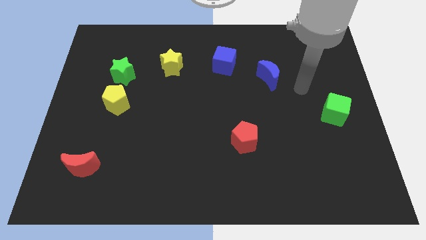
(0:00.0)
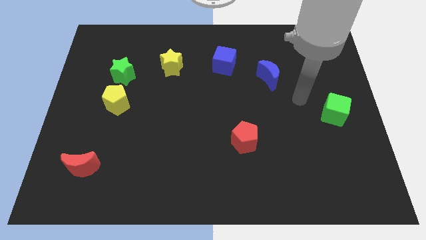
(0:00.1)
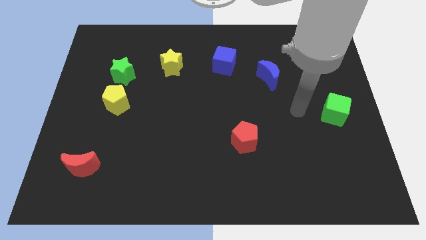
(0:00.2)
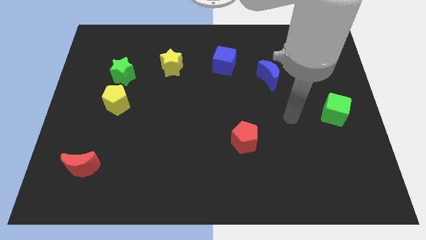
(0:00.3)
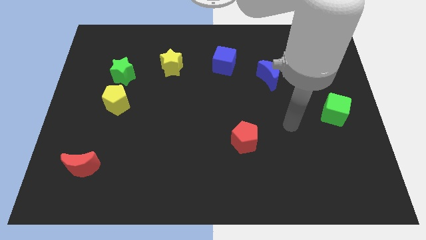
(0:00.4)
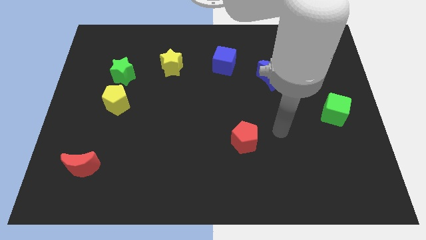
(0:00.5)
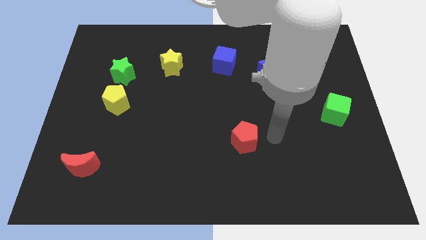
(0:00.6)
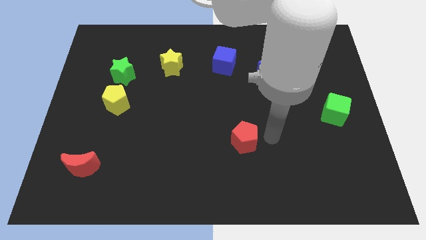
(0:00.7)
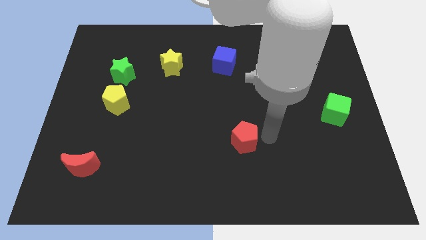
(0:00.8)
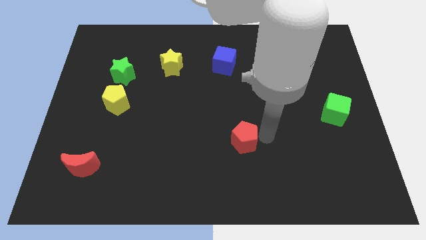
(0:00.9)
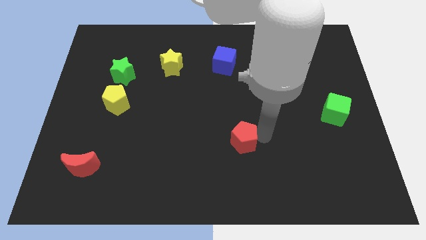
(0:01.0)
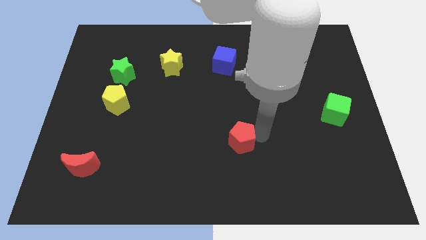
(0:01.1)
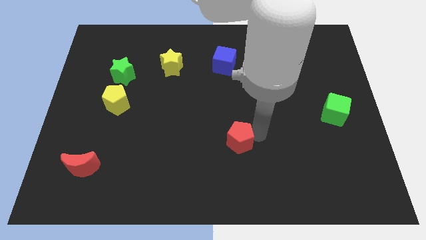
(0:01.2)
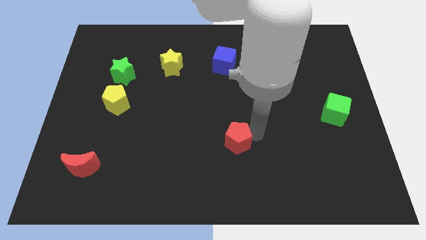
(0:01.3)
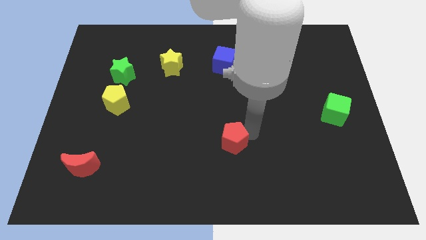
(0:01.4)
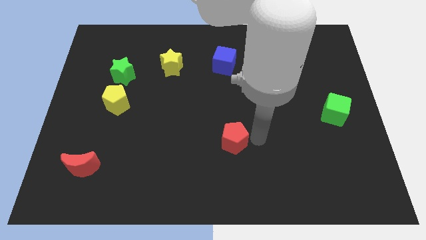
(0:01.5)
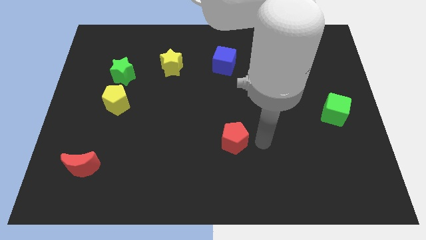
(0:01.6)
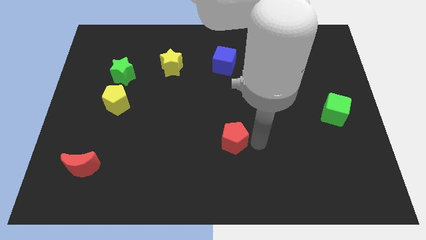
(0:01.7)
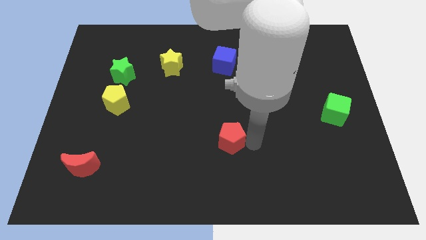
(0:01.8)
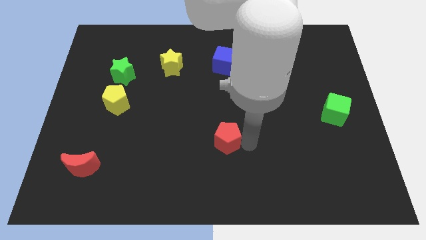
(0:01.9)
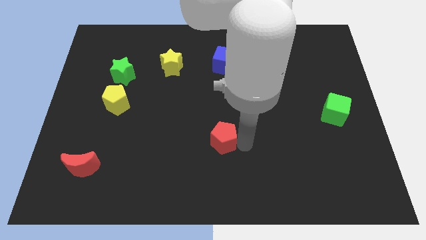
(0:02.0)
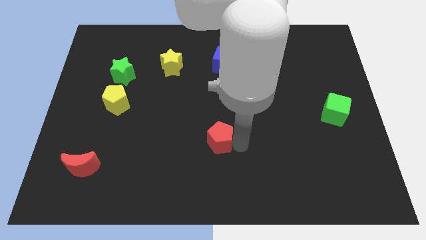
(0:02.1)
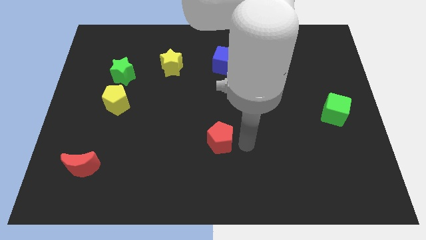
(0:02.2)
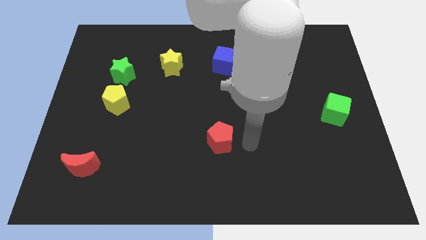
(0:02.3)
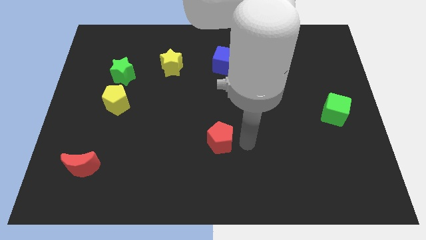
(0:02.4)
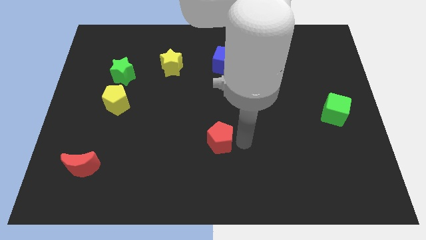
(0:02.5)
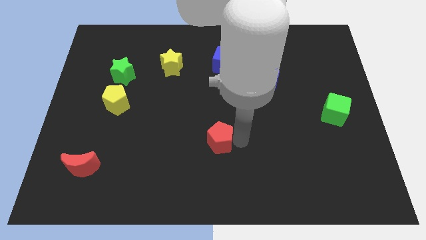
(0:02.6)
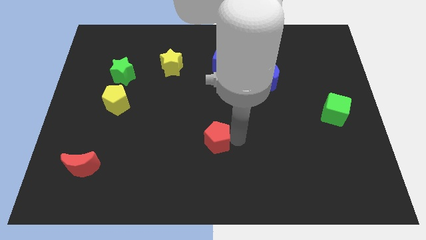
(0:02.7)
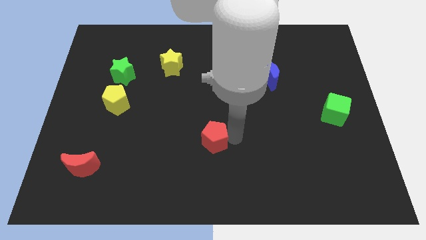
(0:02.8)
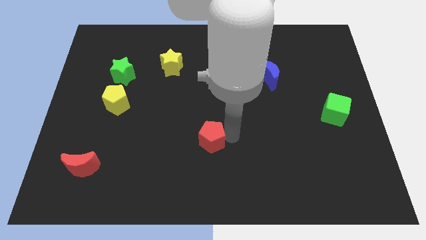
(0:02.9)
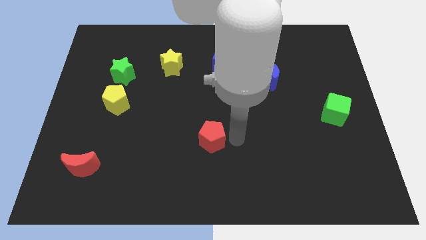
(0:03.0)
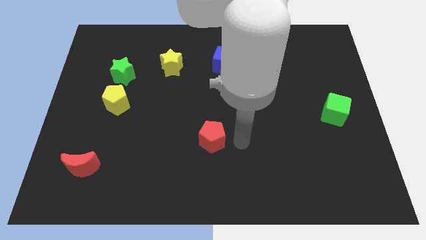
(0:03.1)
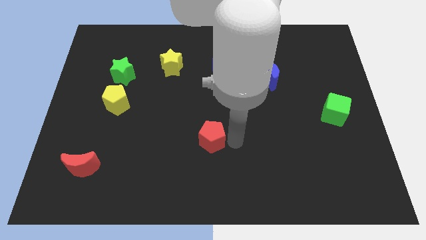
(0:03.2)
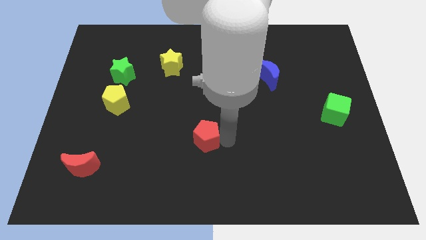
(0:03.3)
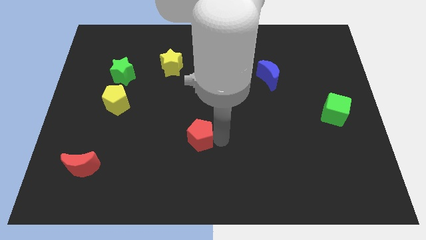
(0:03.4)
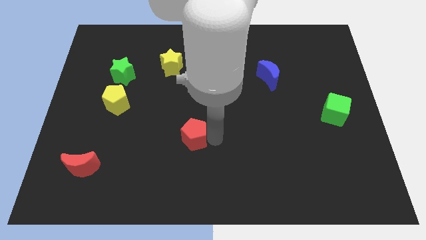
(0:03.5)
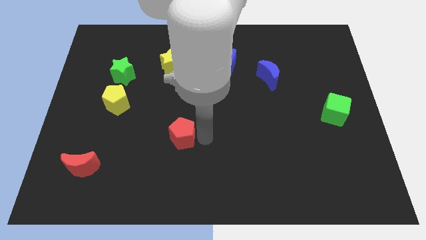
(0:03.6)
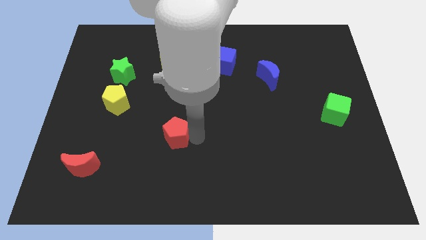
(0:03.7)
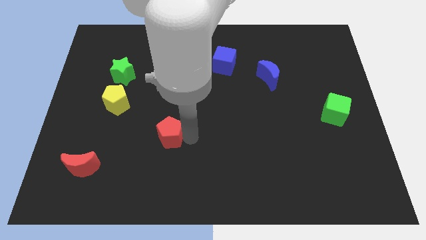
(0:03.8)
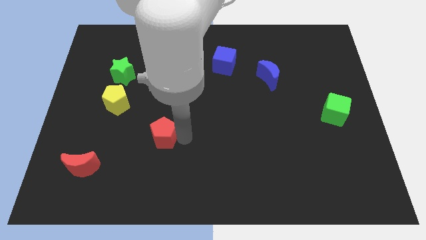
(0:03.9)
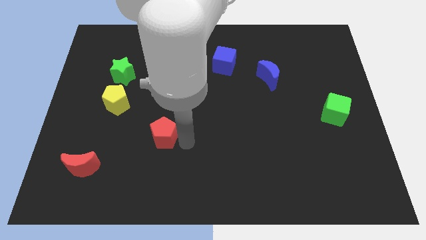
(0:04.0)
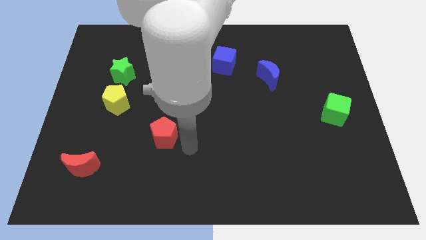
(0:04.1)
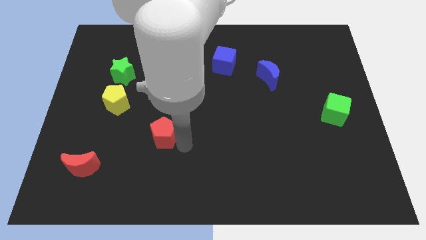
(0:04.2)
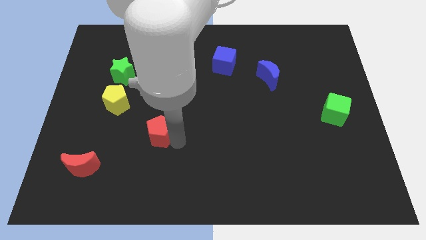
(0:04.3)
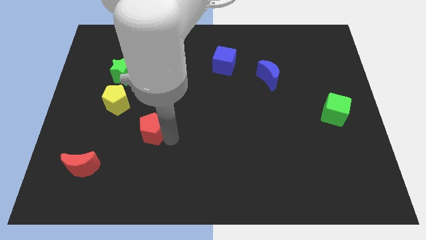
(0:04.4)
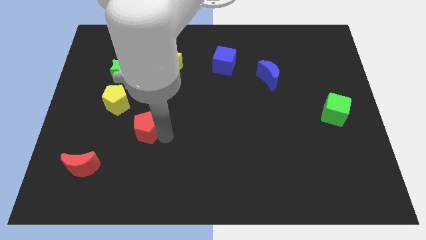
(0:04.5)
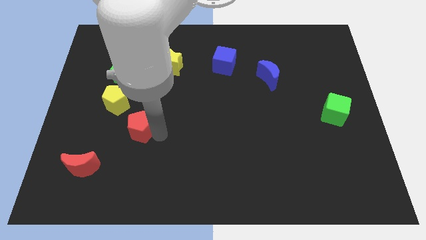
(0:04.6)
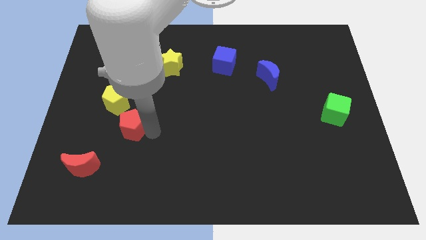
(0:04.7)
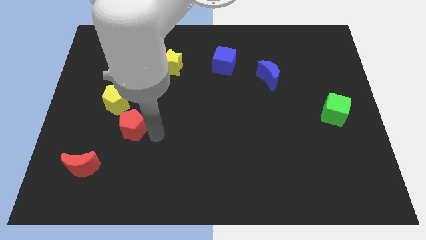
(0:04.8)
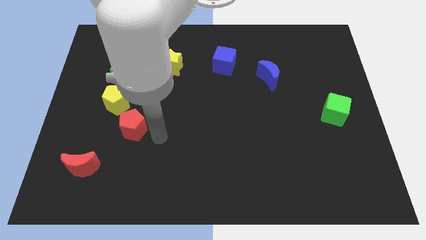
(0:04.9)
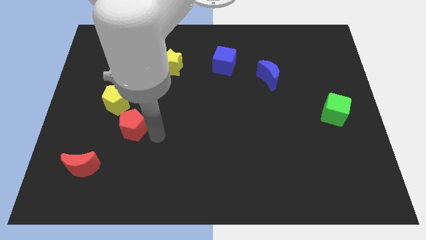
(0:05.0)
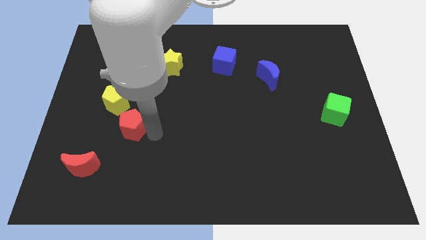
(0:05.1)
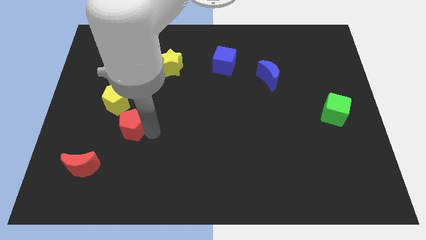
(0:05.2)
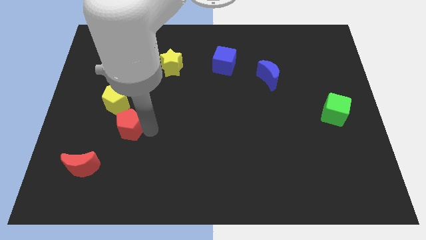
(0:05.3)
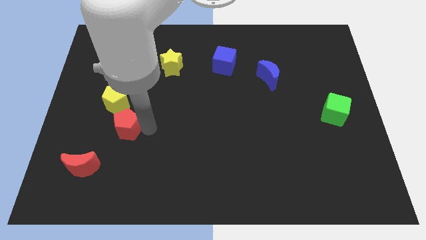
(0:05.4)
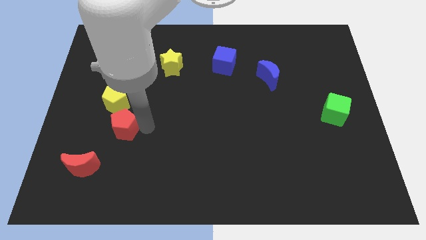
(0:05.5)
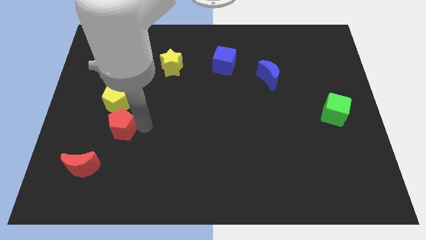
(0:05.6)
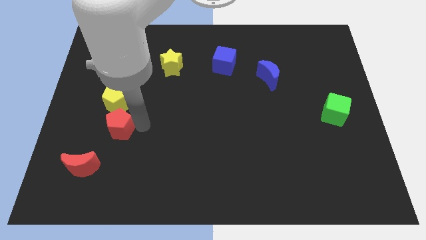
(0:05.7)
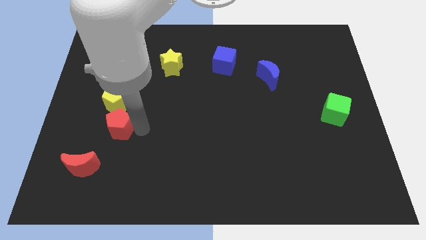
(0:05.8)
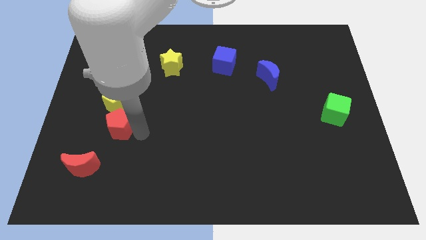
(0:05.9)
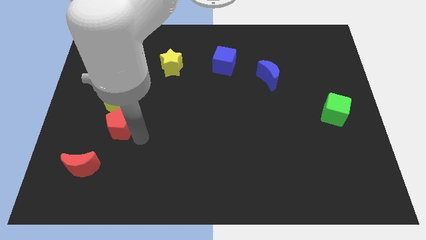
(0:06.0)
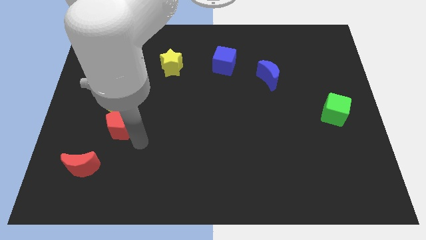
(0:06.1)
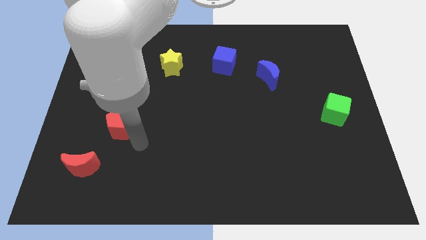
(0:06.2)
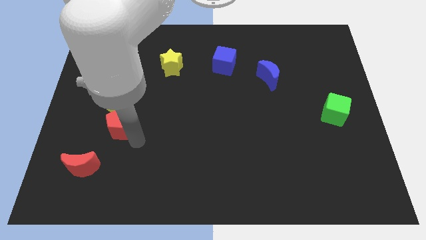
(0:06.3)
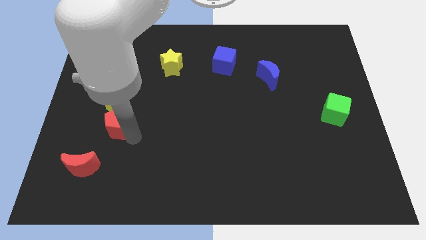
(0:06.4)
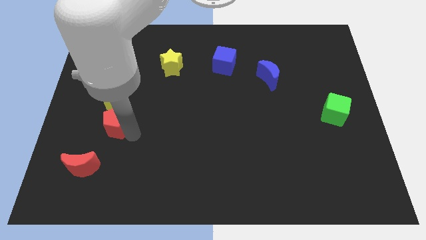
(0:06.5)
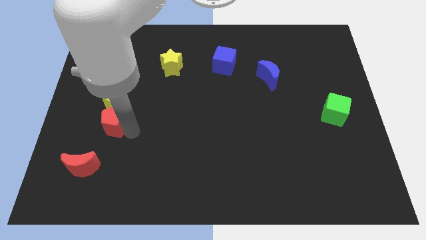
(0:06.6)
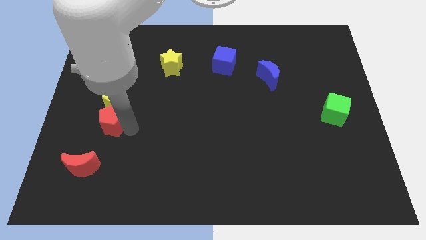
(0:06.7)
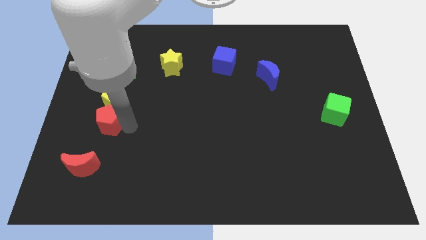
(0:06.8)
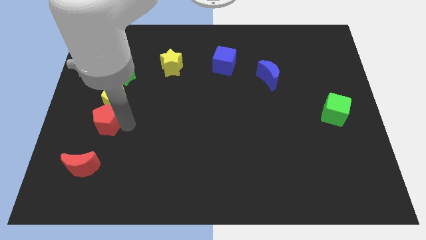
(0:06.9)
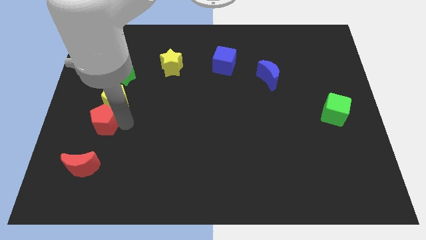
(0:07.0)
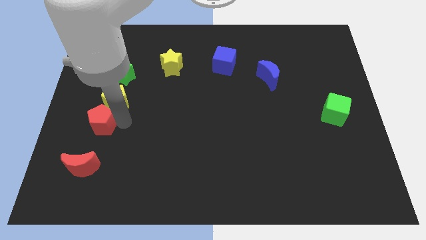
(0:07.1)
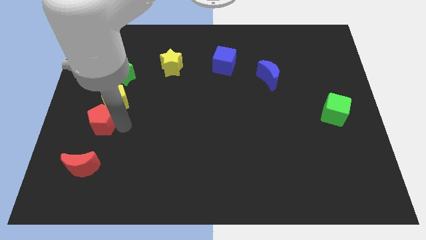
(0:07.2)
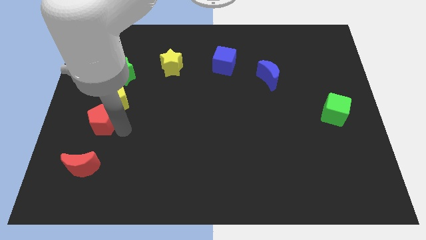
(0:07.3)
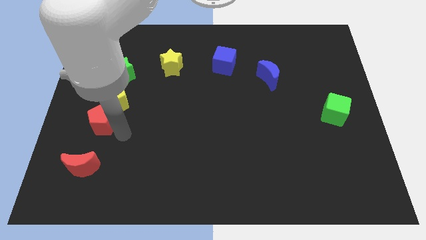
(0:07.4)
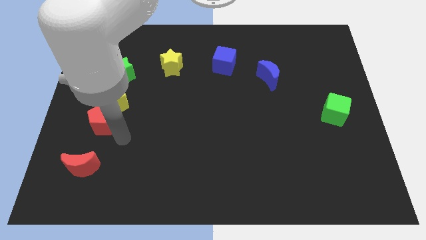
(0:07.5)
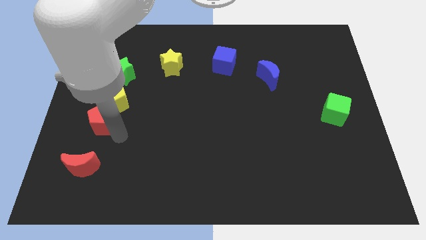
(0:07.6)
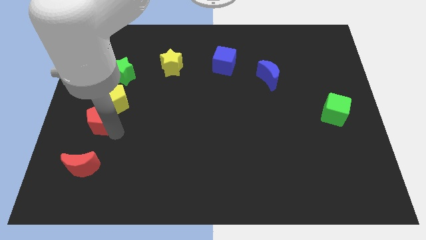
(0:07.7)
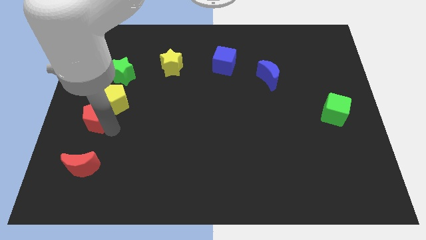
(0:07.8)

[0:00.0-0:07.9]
slide the red pentagon to the left side of the board
